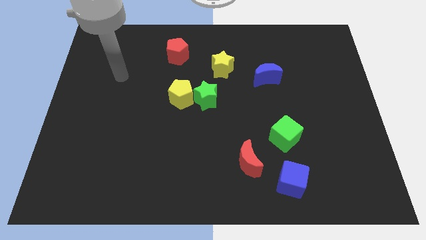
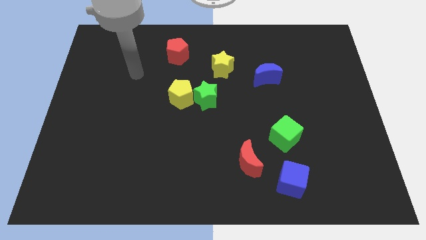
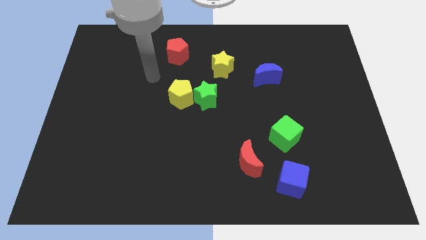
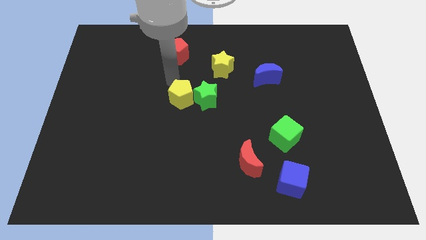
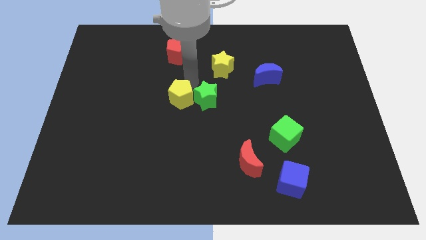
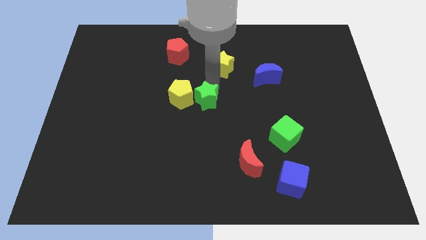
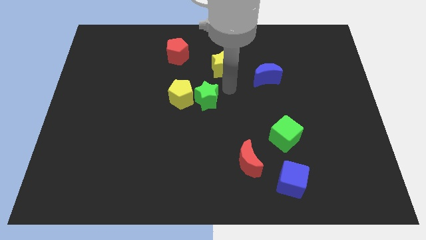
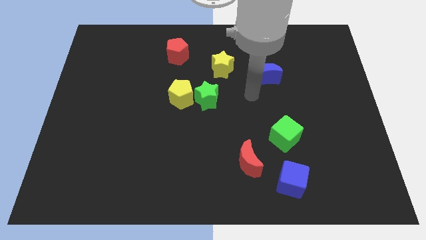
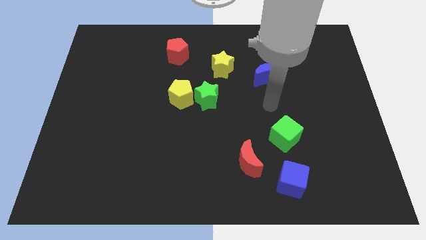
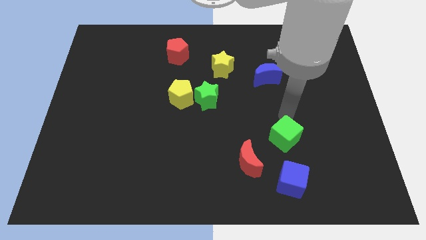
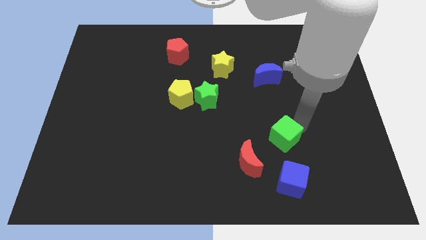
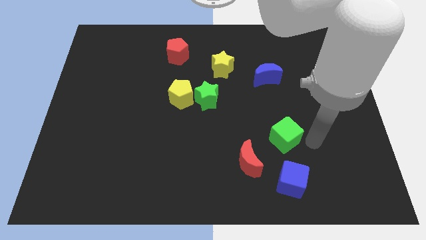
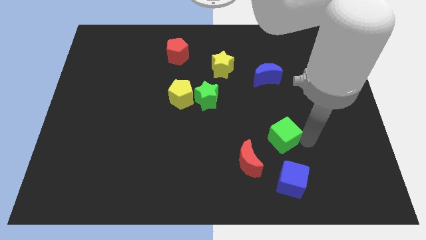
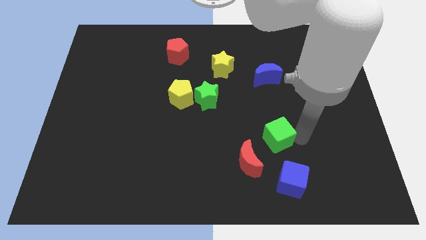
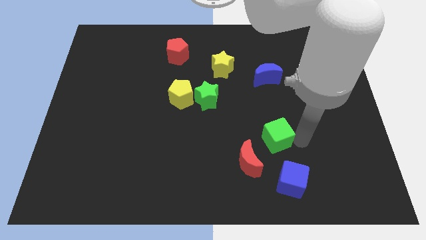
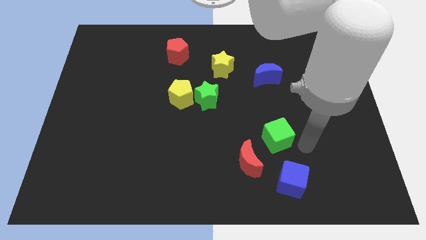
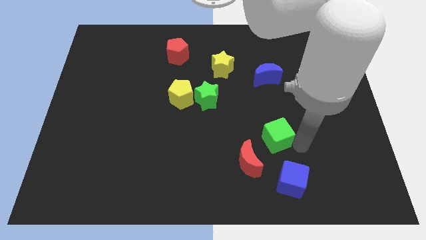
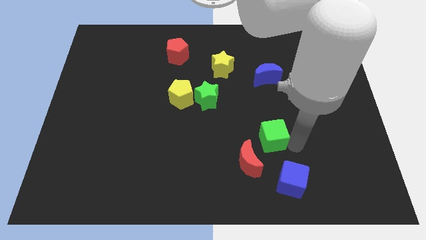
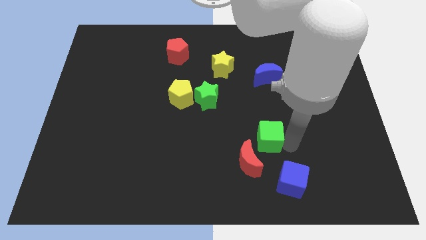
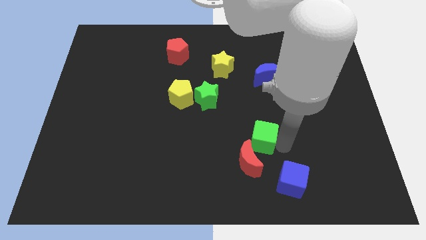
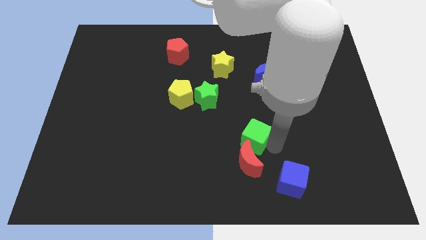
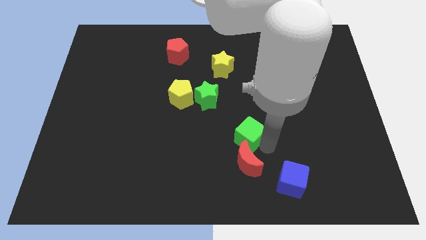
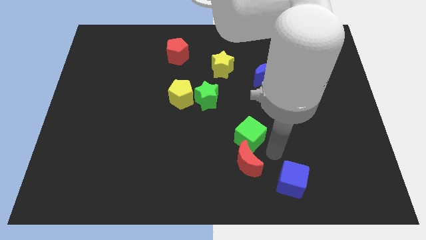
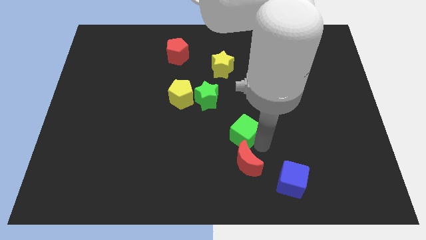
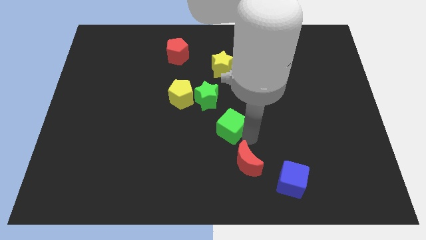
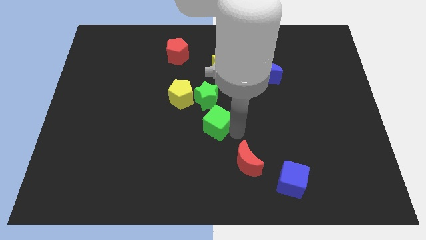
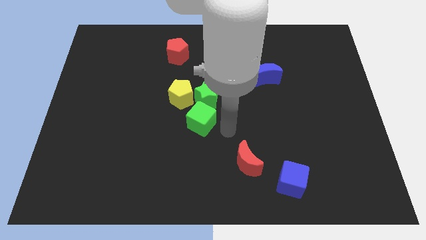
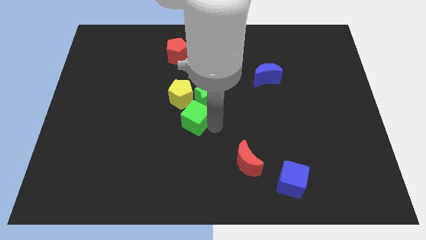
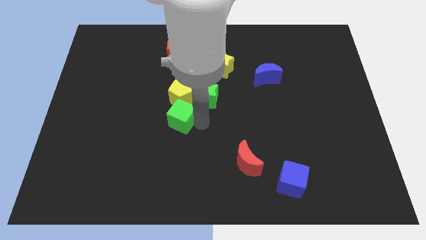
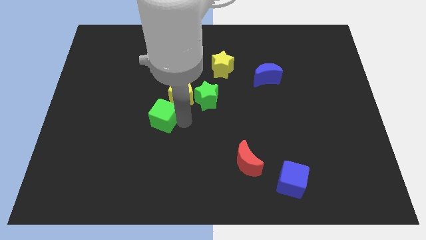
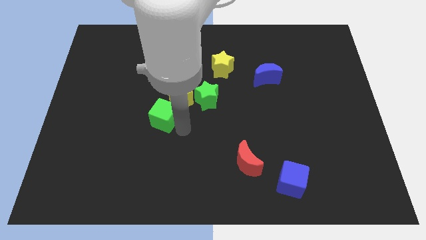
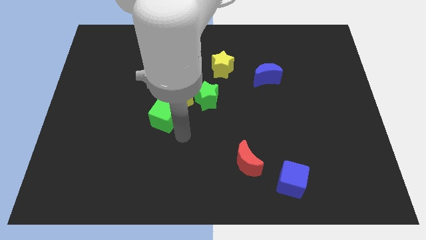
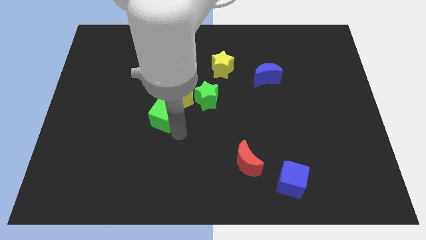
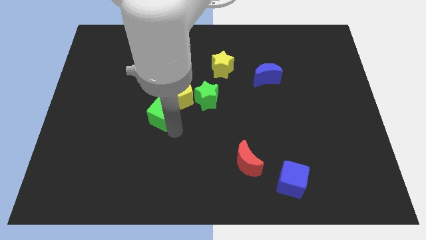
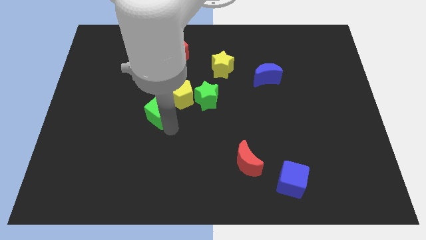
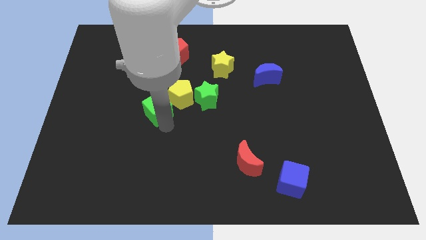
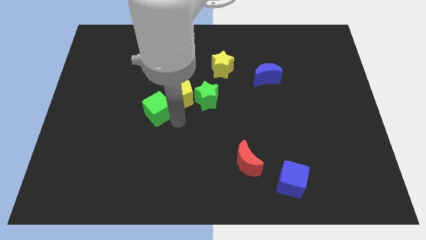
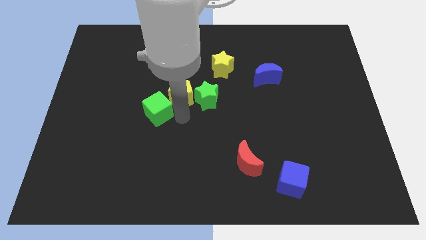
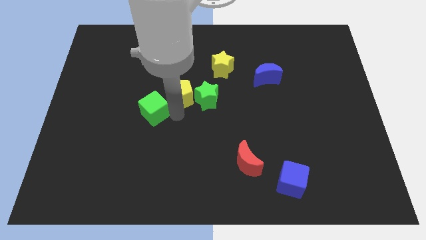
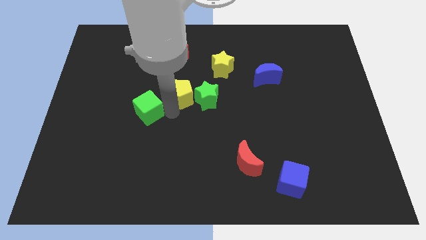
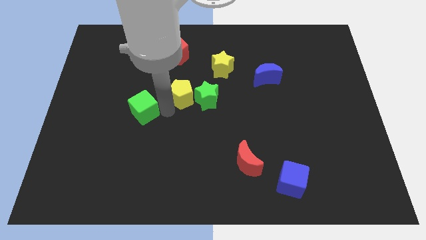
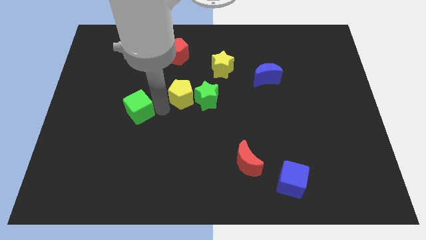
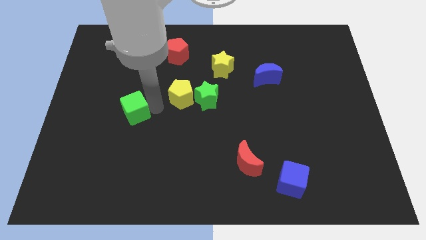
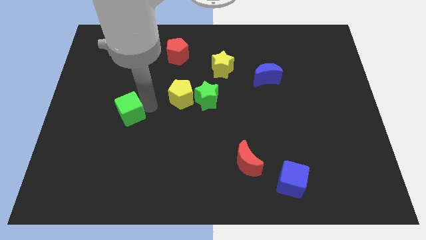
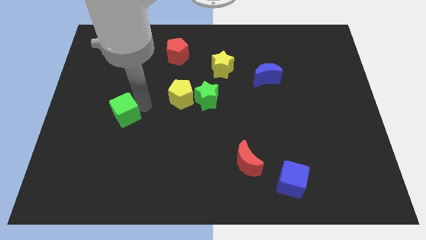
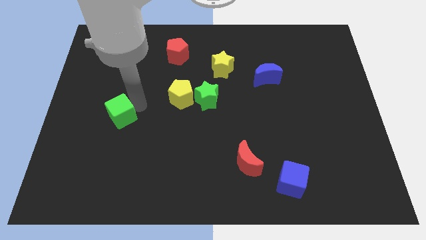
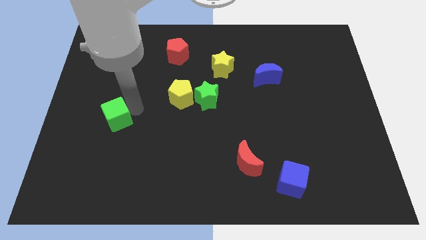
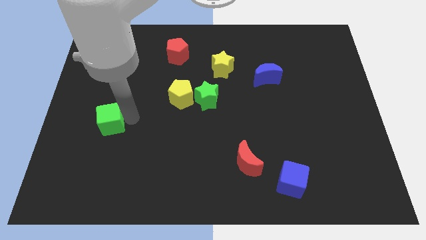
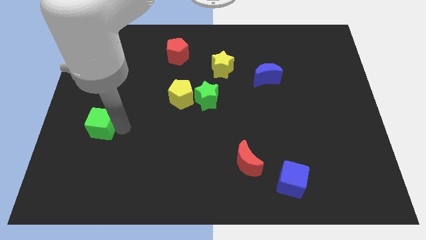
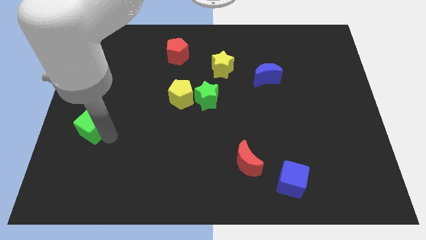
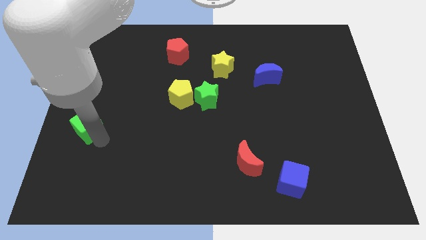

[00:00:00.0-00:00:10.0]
move the green cube to the center left

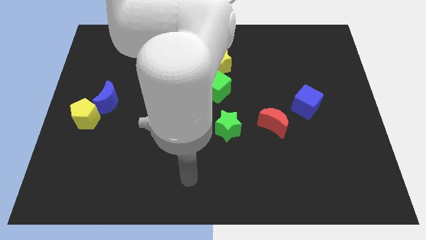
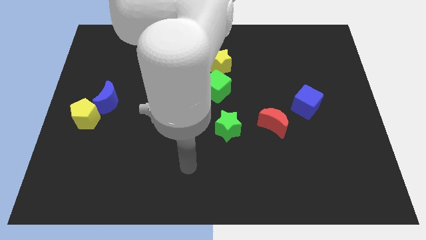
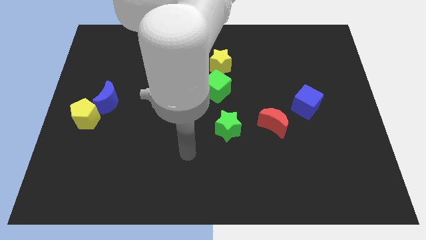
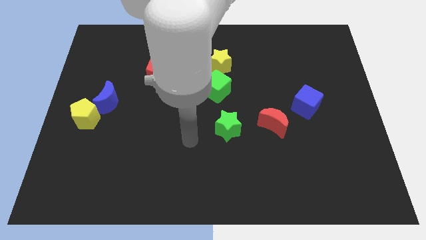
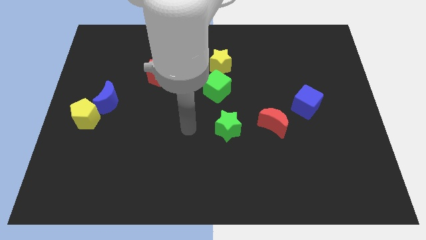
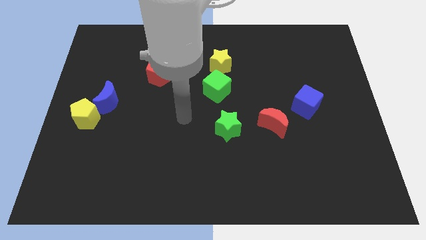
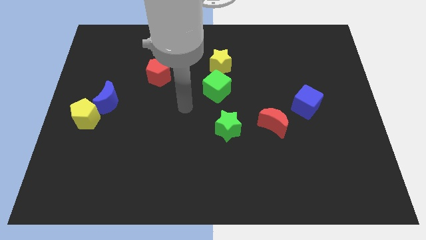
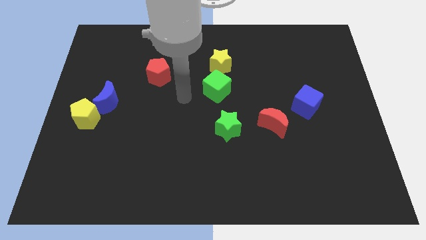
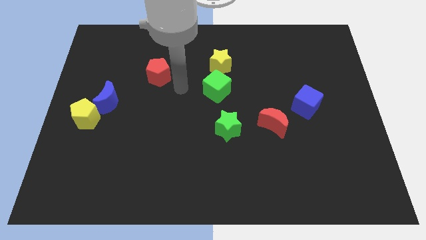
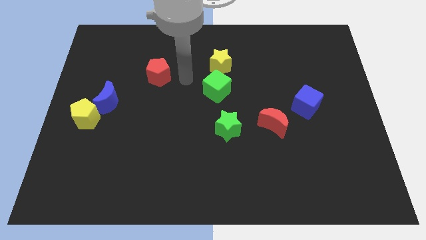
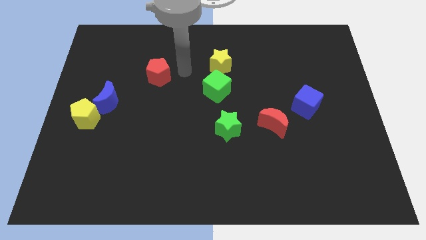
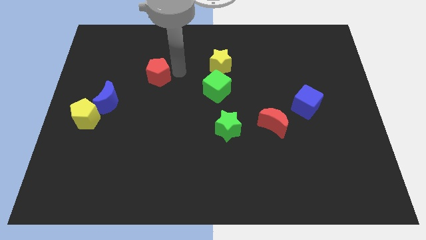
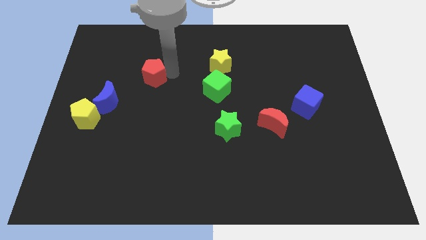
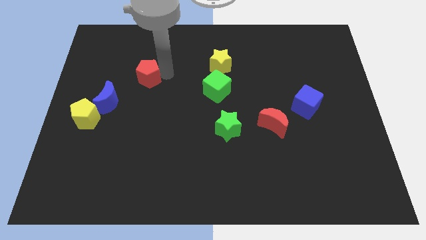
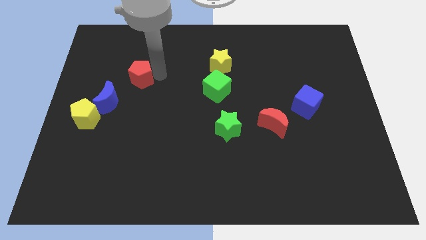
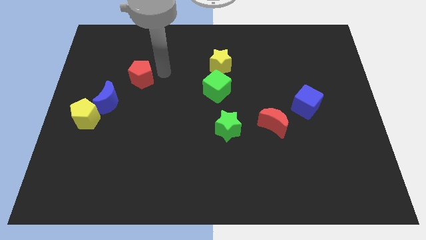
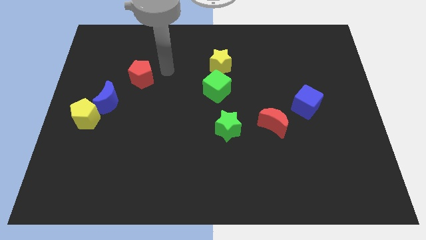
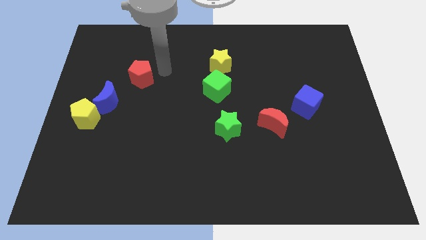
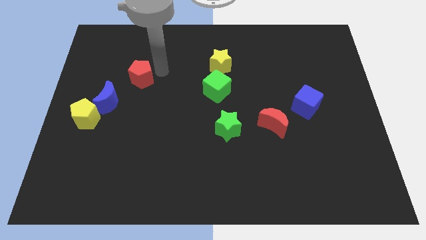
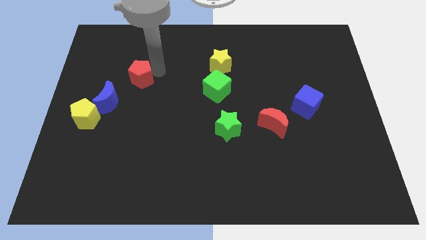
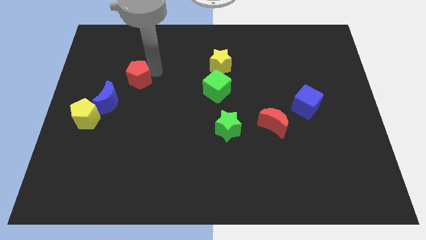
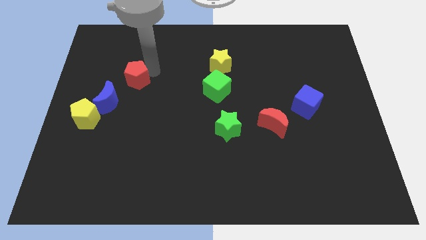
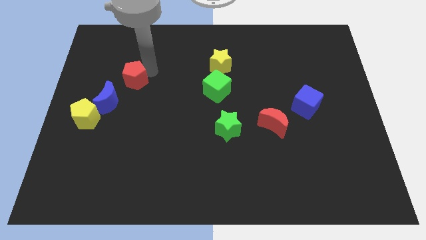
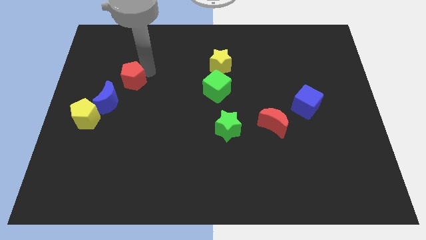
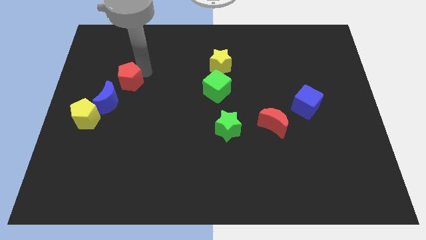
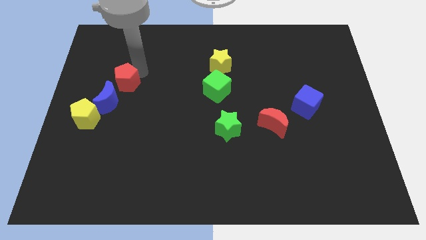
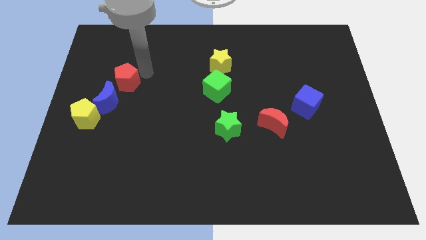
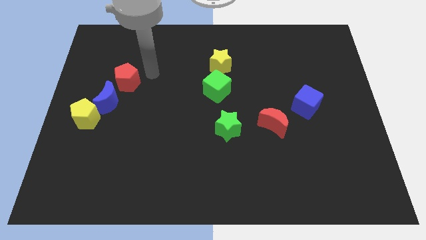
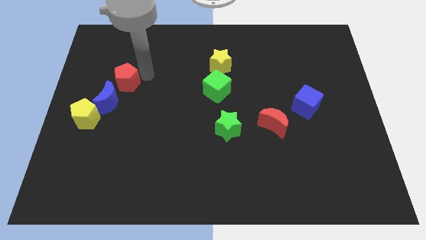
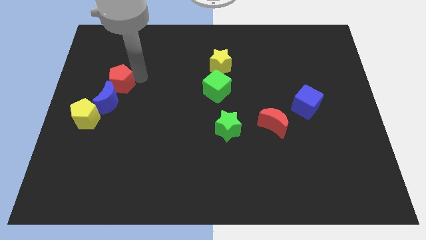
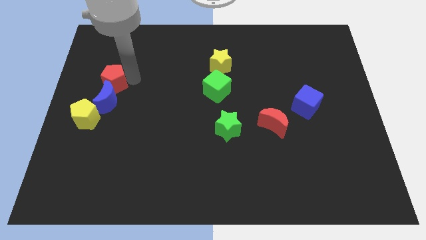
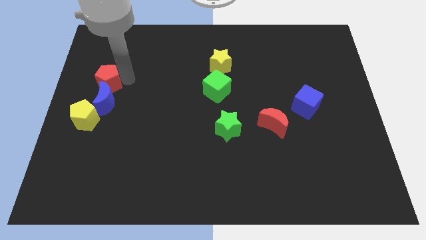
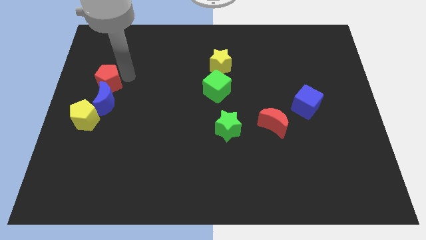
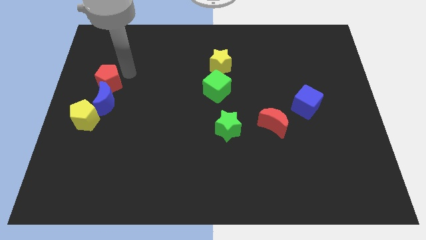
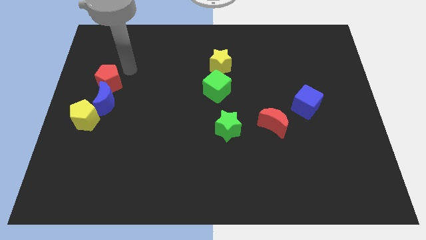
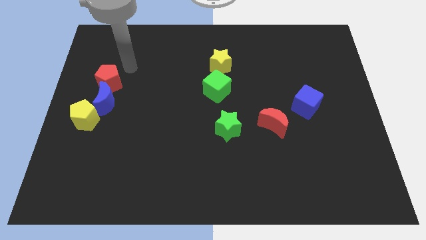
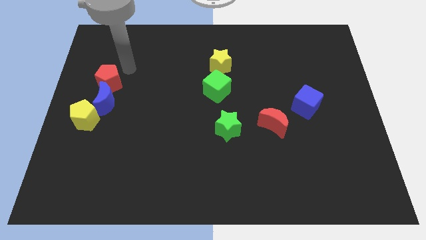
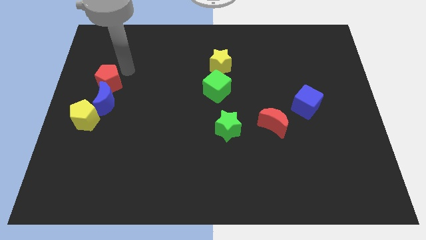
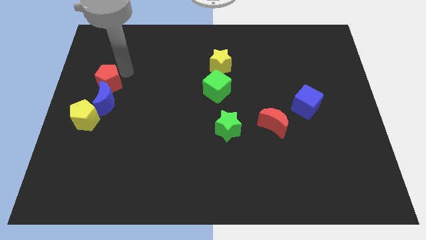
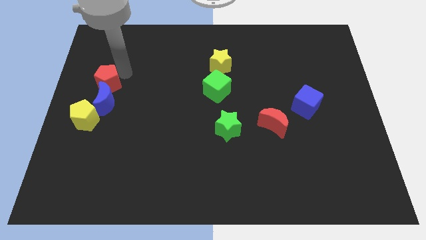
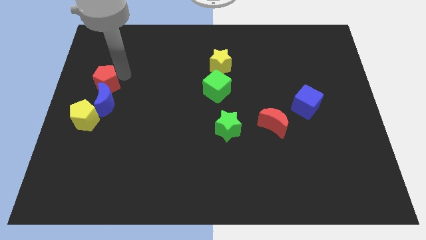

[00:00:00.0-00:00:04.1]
slide the red pentagon to the left side of the board
